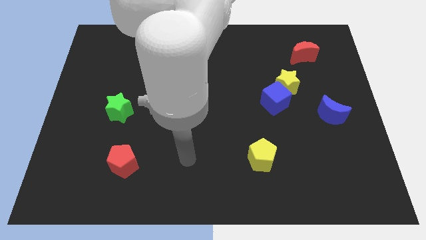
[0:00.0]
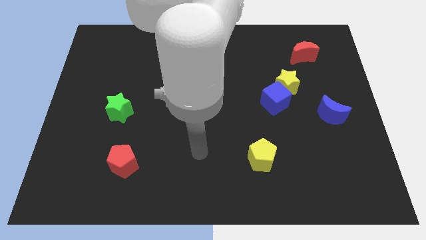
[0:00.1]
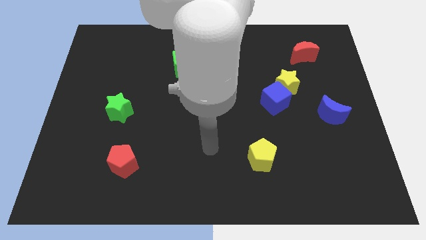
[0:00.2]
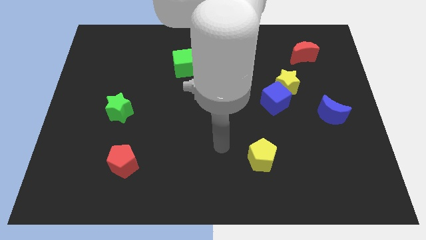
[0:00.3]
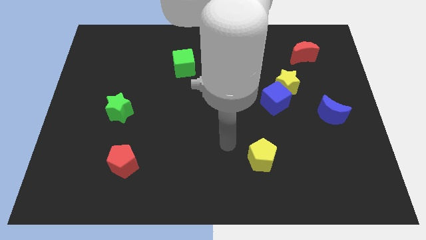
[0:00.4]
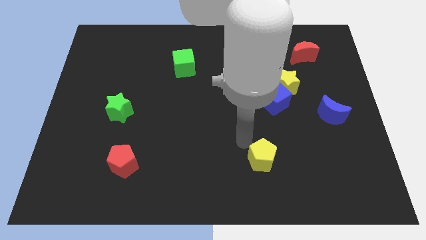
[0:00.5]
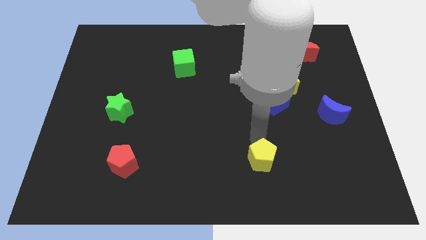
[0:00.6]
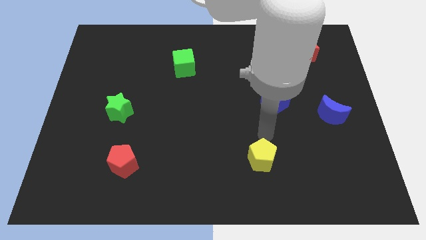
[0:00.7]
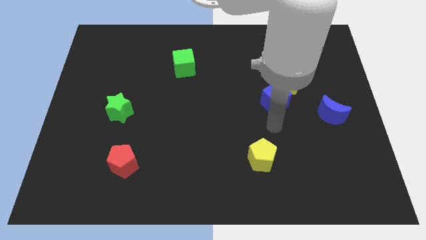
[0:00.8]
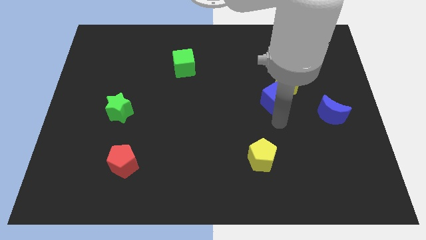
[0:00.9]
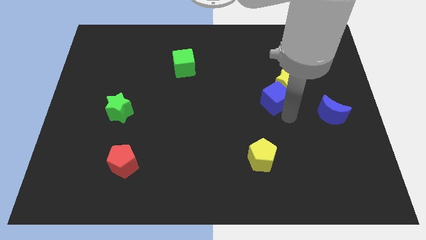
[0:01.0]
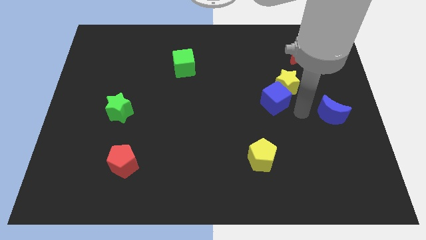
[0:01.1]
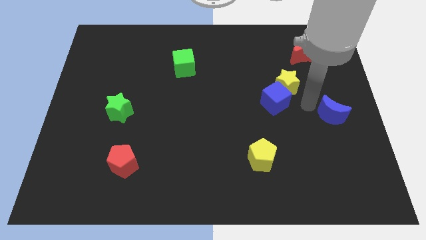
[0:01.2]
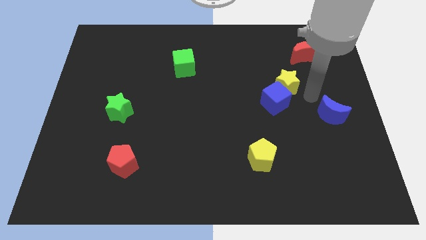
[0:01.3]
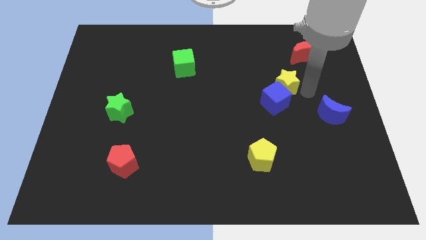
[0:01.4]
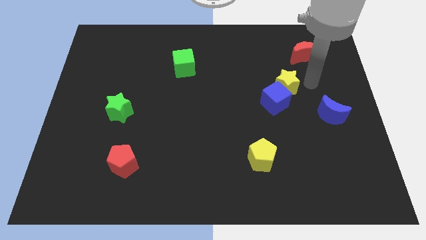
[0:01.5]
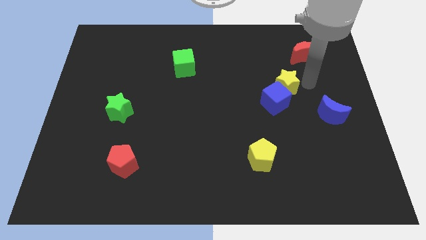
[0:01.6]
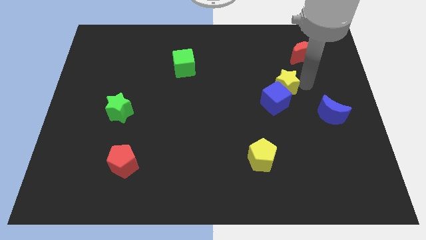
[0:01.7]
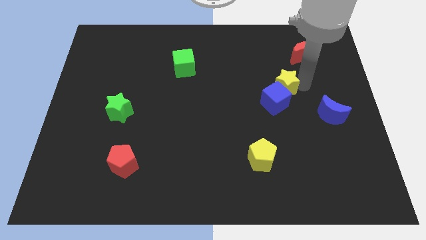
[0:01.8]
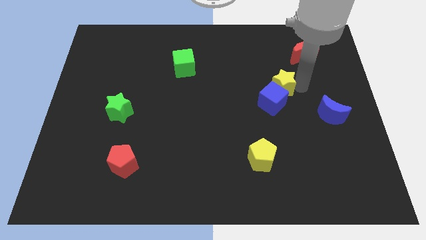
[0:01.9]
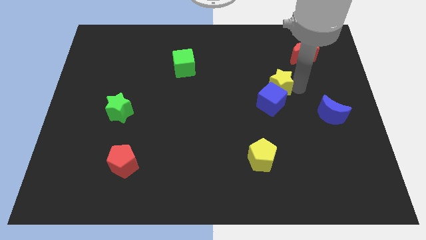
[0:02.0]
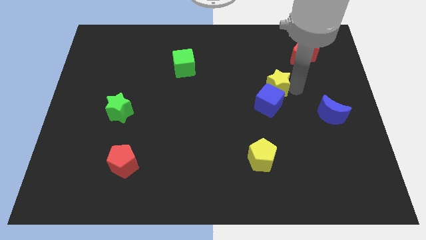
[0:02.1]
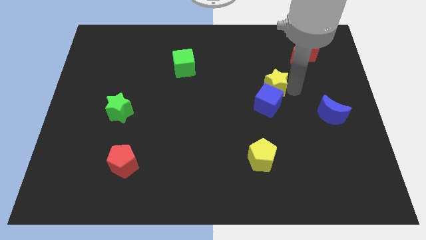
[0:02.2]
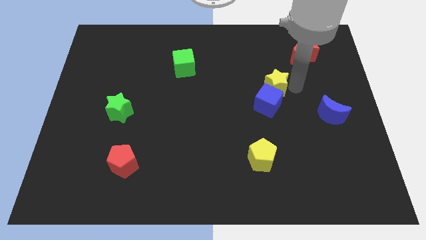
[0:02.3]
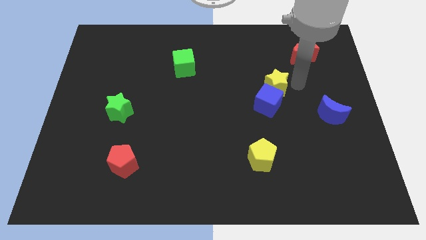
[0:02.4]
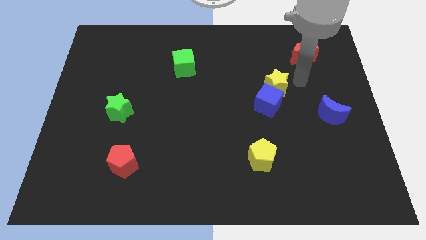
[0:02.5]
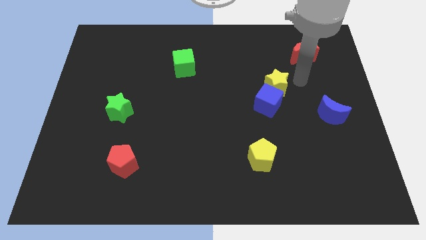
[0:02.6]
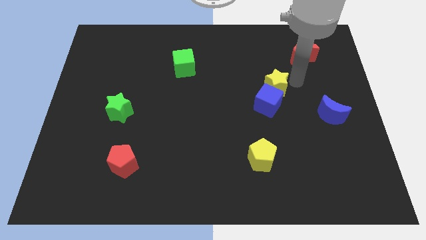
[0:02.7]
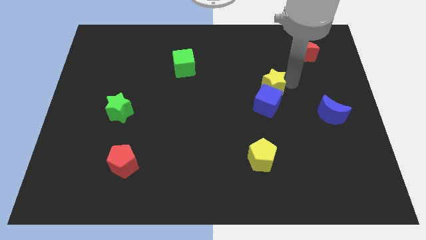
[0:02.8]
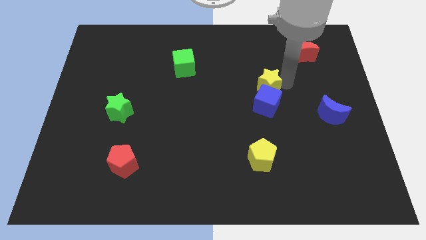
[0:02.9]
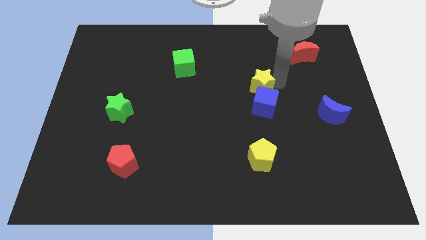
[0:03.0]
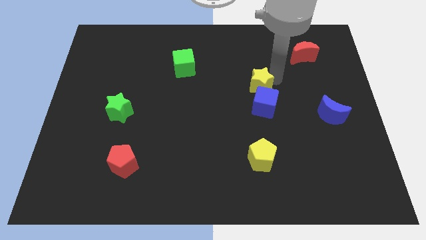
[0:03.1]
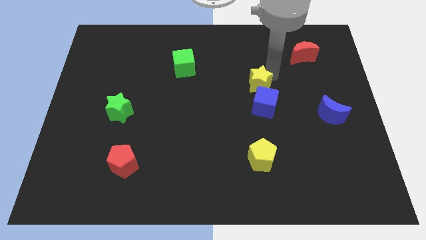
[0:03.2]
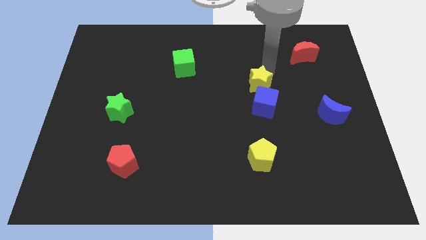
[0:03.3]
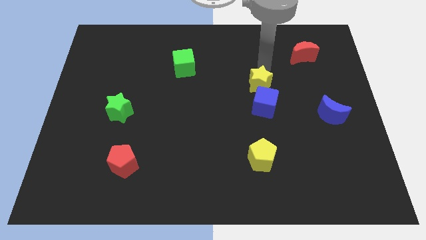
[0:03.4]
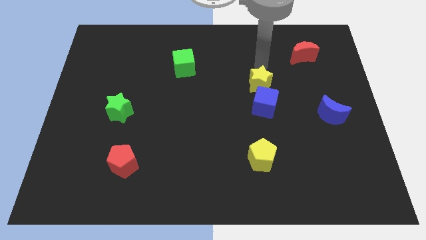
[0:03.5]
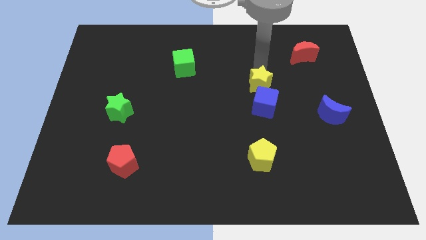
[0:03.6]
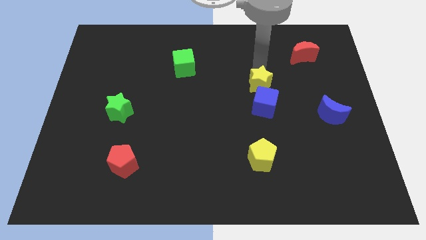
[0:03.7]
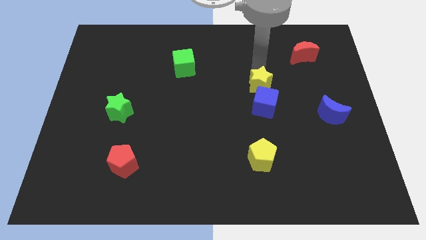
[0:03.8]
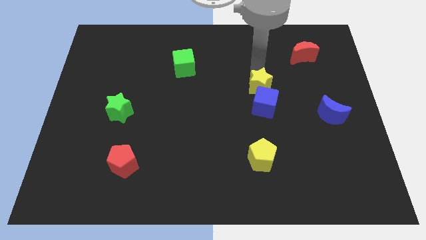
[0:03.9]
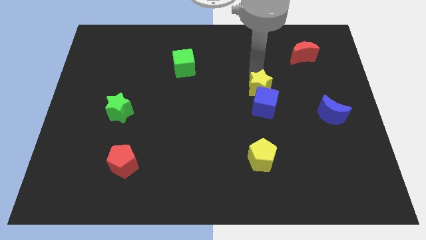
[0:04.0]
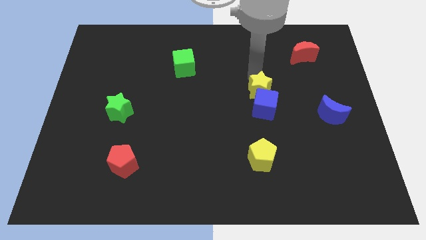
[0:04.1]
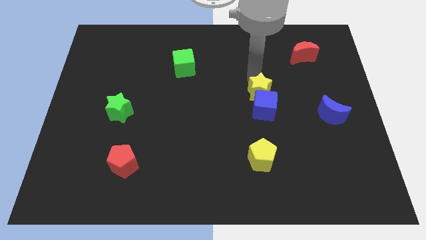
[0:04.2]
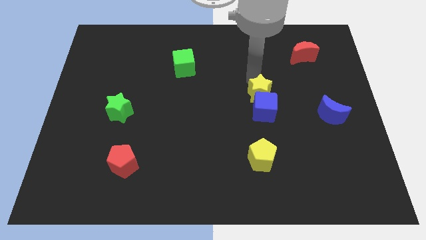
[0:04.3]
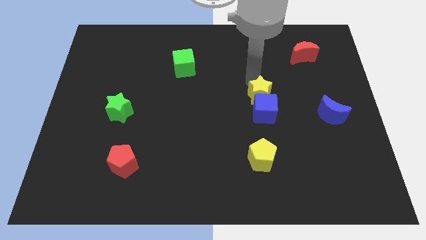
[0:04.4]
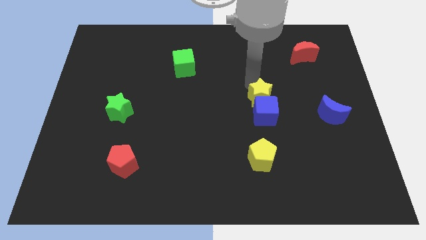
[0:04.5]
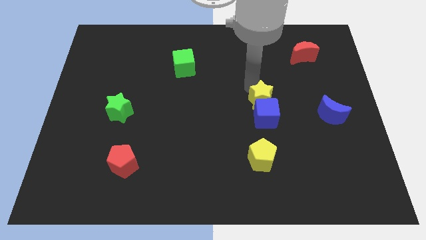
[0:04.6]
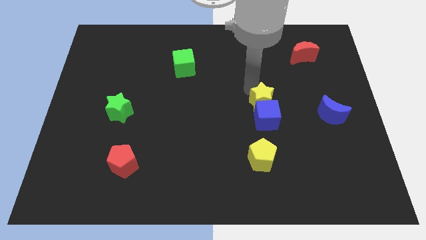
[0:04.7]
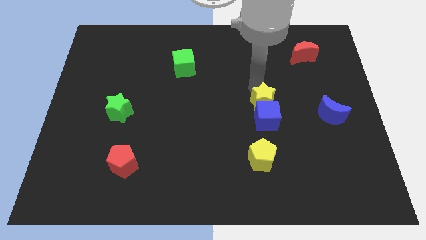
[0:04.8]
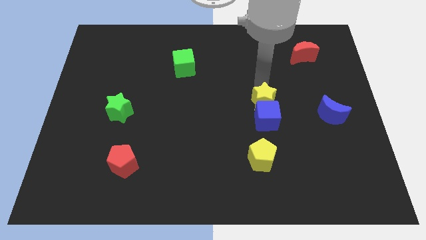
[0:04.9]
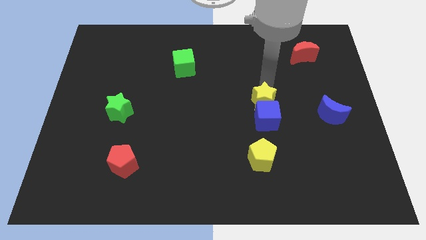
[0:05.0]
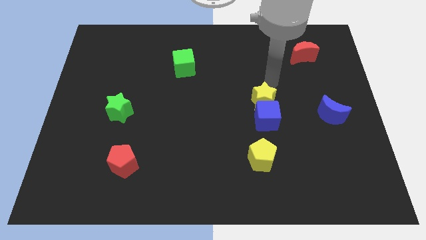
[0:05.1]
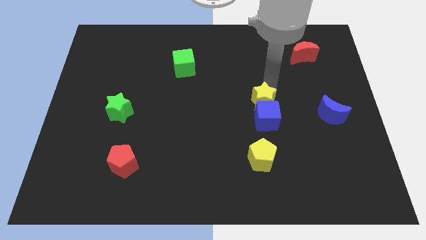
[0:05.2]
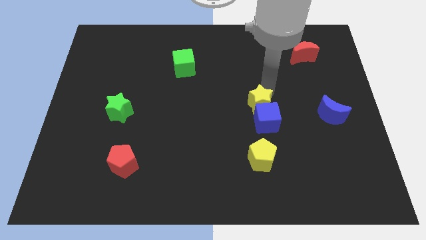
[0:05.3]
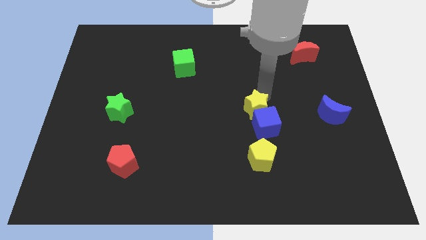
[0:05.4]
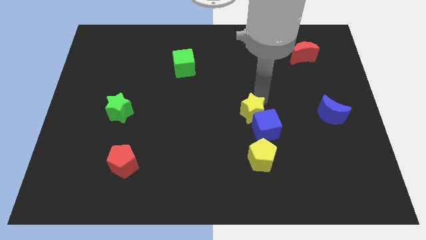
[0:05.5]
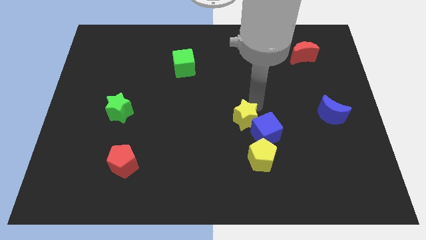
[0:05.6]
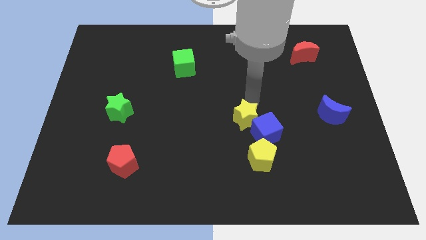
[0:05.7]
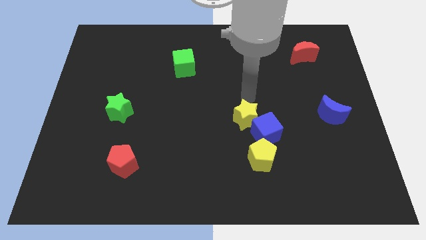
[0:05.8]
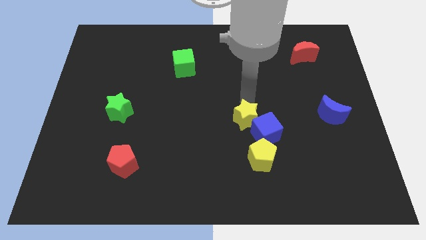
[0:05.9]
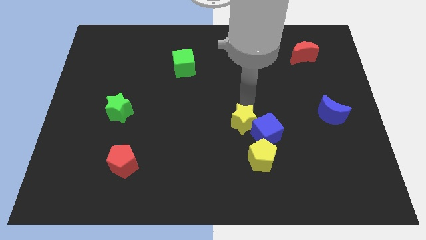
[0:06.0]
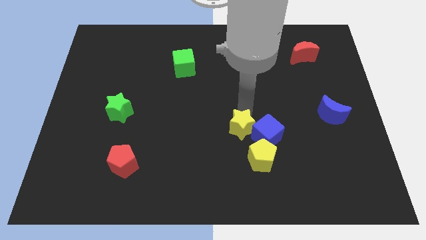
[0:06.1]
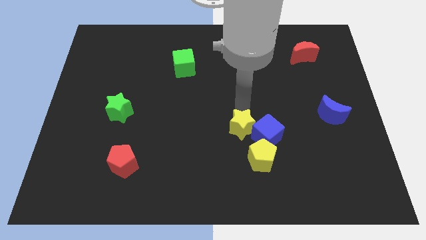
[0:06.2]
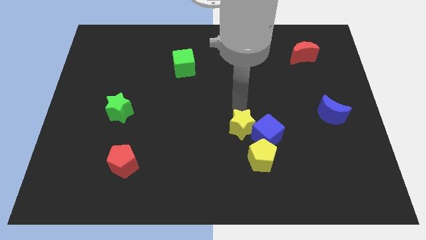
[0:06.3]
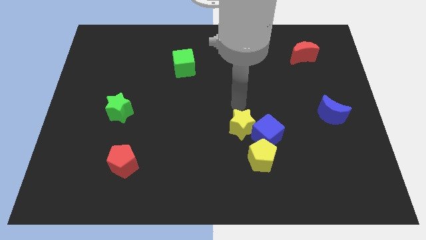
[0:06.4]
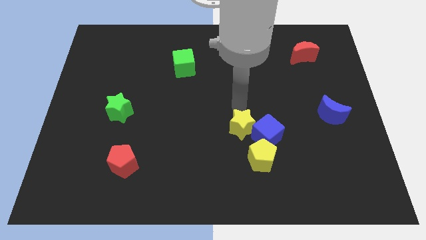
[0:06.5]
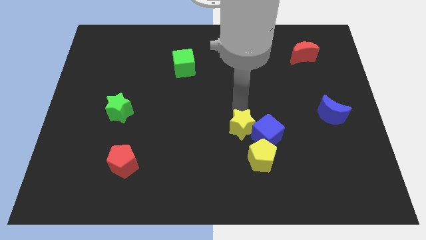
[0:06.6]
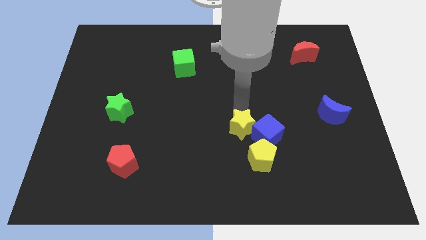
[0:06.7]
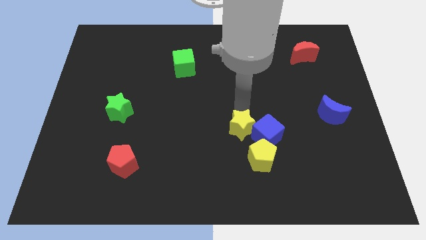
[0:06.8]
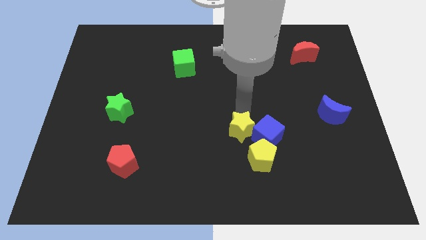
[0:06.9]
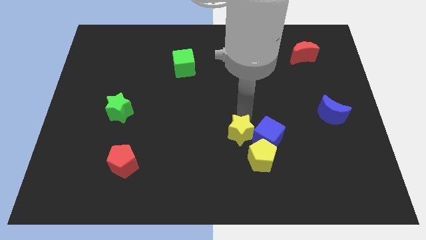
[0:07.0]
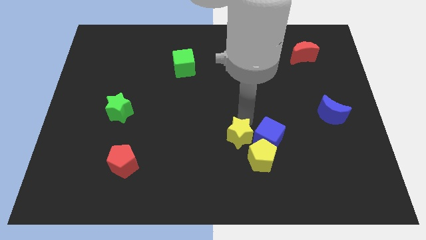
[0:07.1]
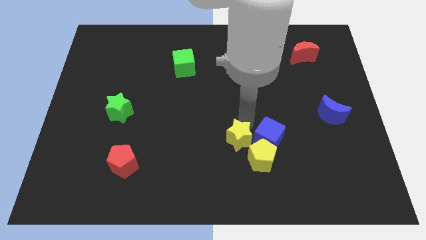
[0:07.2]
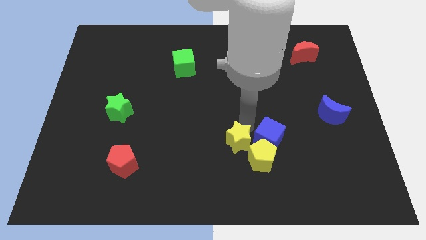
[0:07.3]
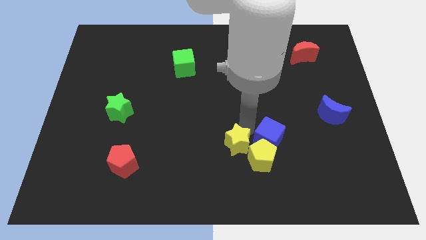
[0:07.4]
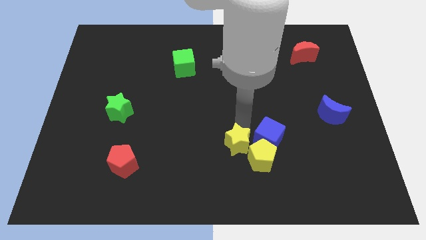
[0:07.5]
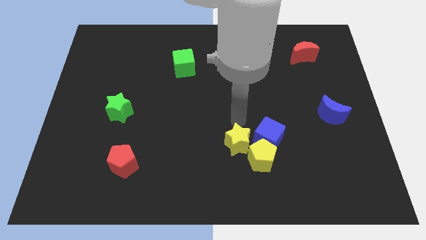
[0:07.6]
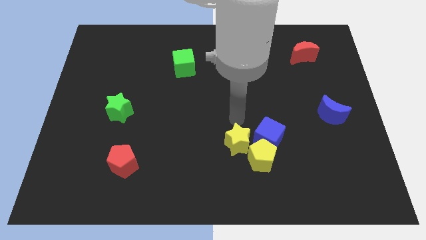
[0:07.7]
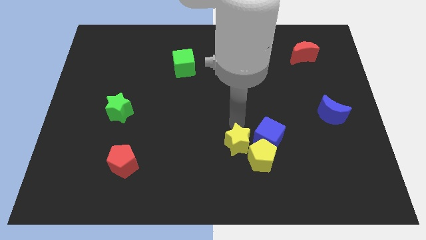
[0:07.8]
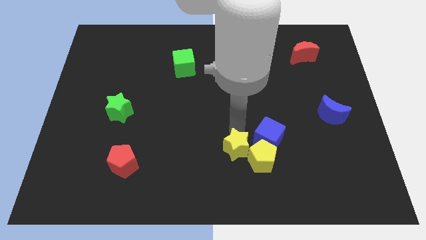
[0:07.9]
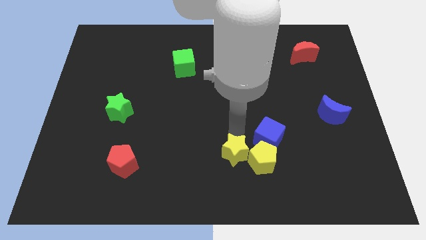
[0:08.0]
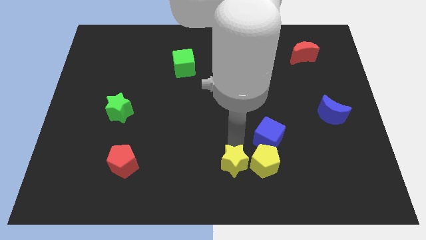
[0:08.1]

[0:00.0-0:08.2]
slide the yellow star to the bottom side
